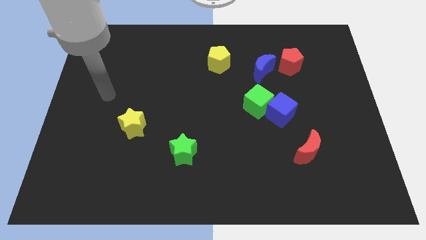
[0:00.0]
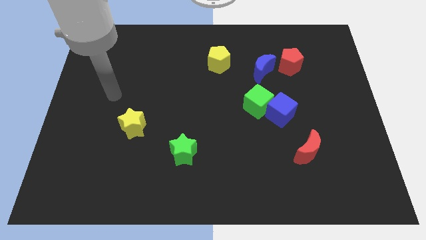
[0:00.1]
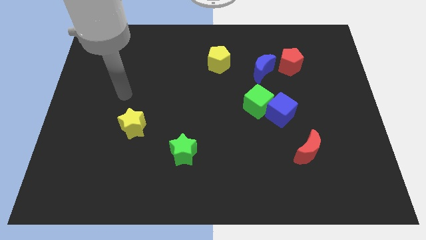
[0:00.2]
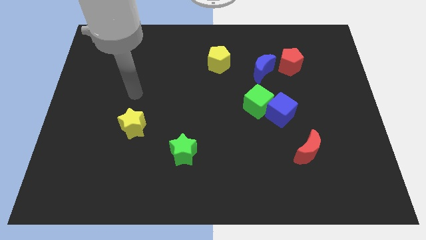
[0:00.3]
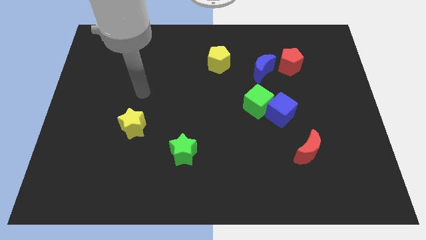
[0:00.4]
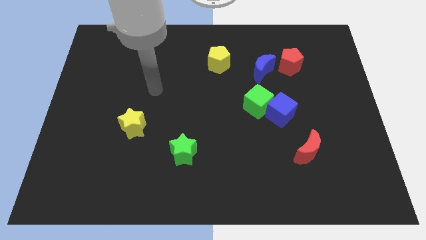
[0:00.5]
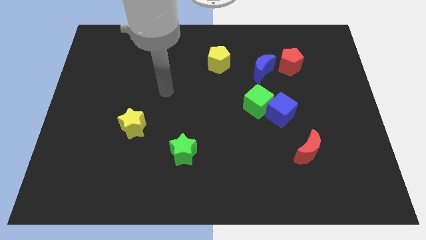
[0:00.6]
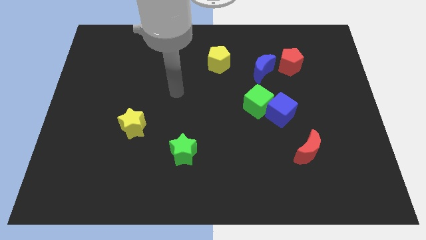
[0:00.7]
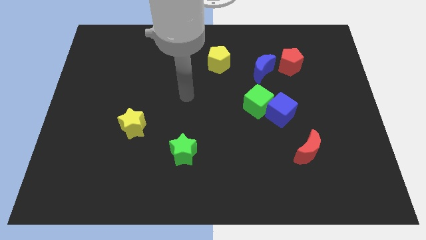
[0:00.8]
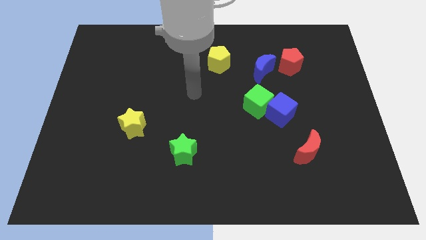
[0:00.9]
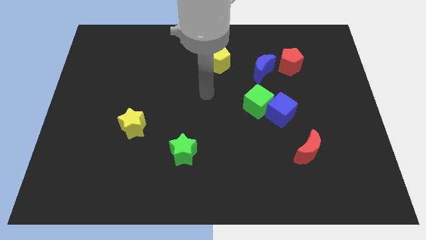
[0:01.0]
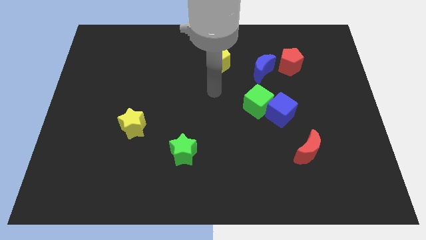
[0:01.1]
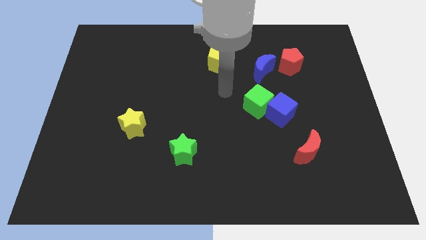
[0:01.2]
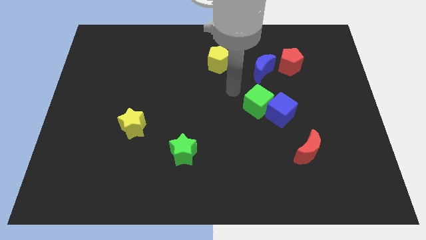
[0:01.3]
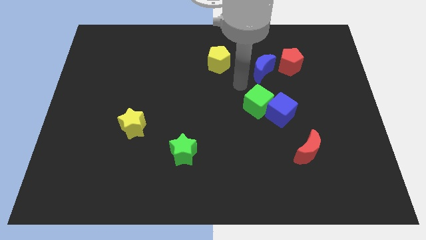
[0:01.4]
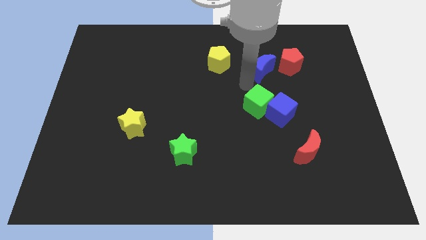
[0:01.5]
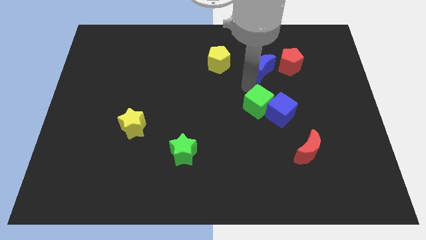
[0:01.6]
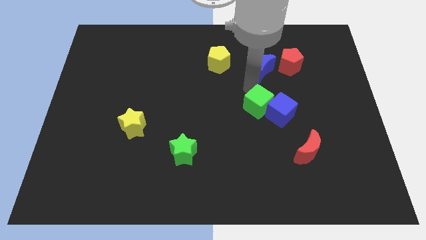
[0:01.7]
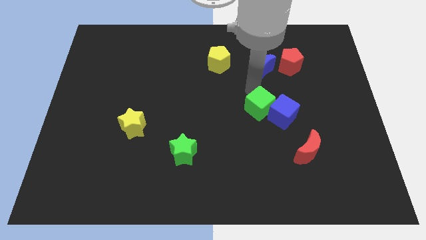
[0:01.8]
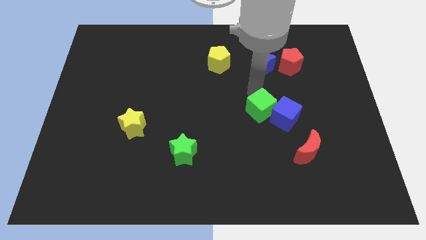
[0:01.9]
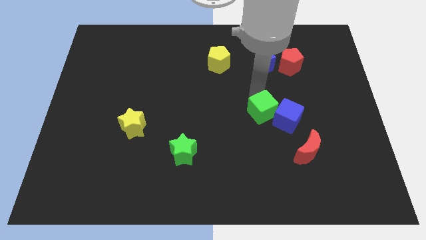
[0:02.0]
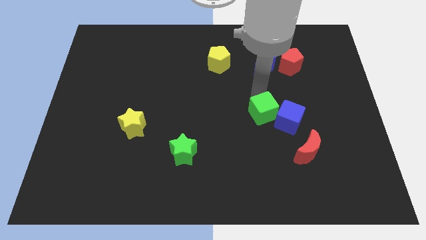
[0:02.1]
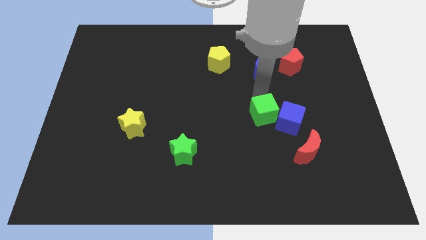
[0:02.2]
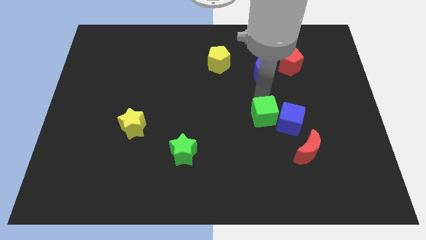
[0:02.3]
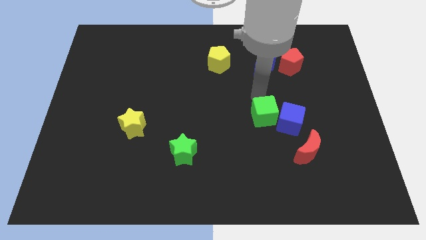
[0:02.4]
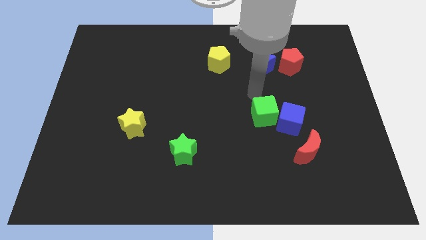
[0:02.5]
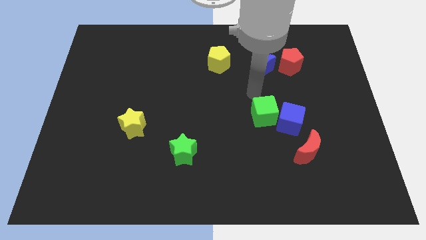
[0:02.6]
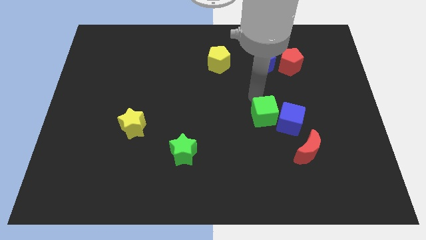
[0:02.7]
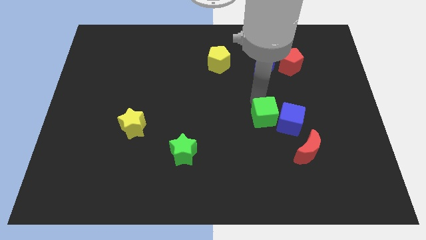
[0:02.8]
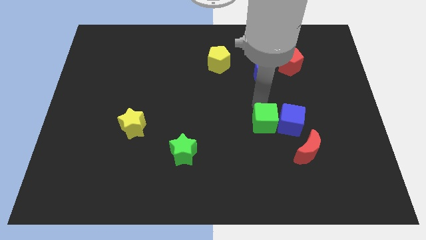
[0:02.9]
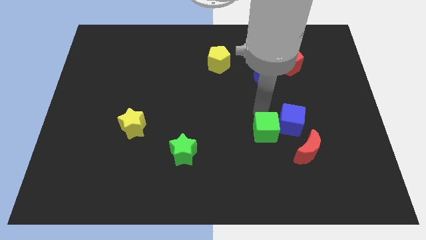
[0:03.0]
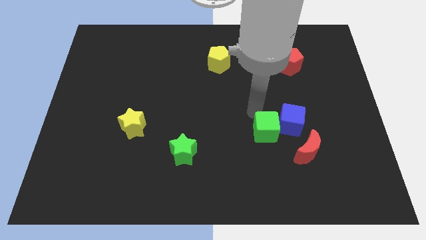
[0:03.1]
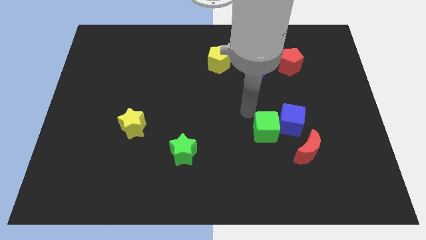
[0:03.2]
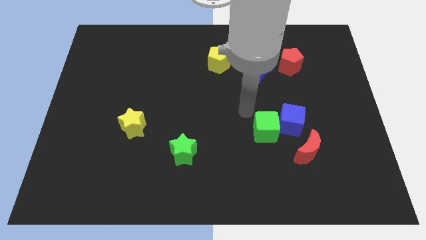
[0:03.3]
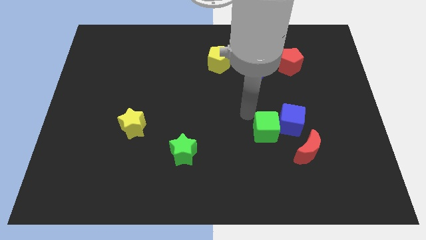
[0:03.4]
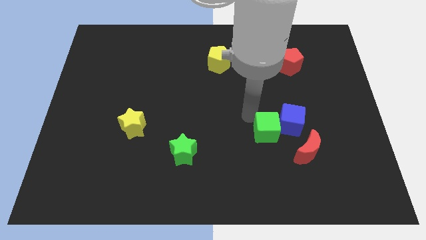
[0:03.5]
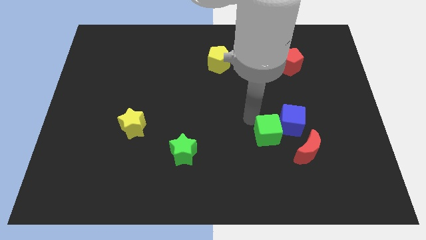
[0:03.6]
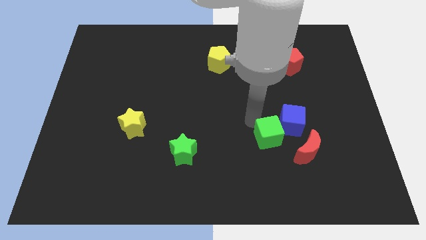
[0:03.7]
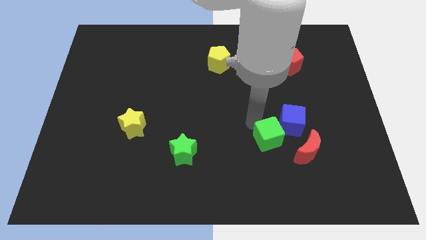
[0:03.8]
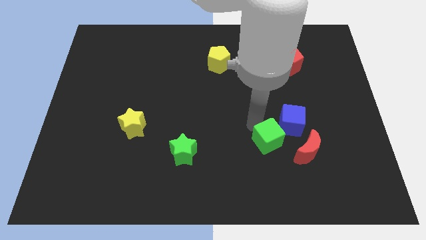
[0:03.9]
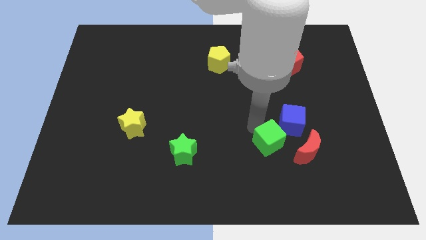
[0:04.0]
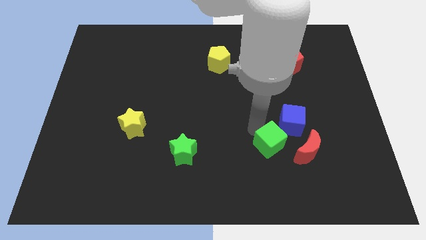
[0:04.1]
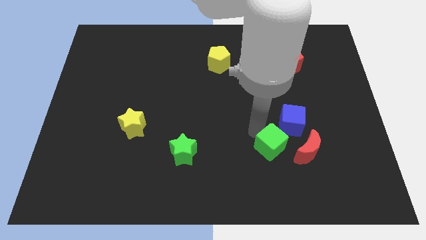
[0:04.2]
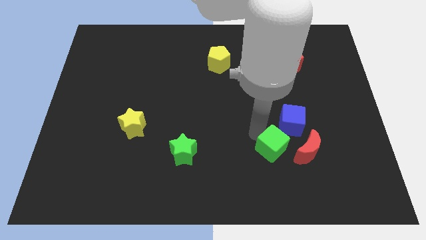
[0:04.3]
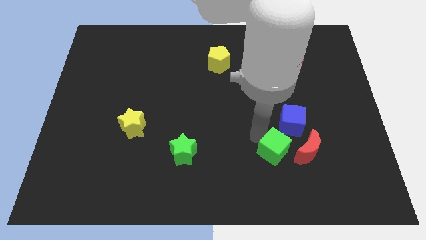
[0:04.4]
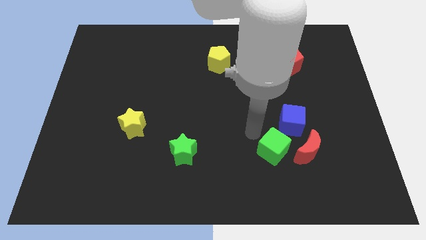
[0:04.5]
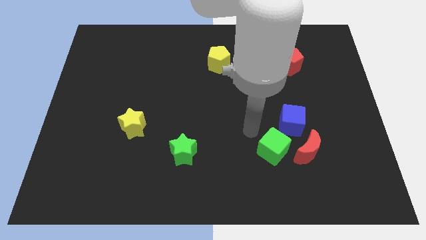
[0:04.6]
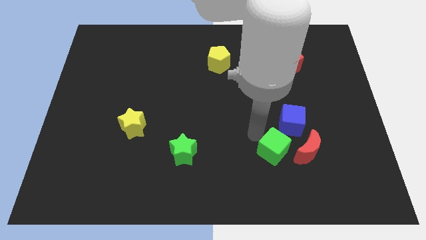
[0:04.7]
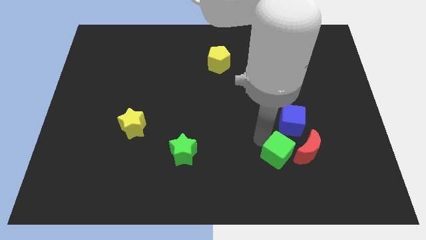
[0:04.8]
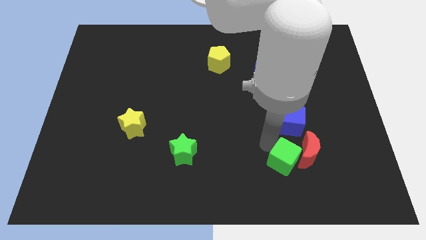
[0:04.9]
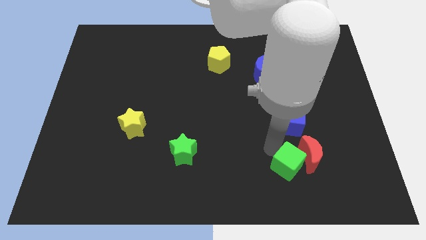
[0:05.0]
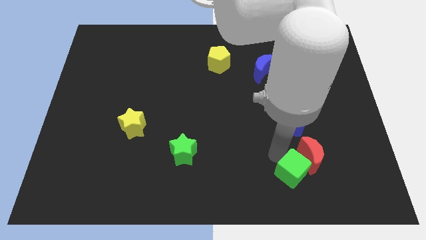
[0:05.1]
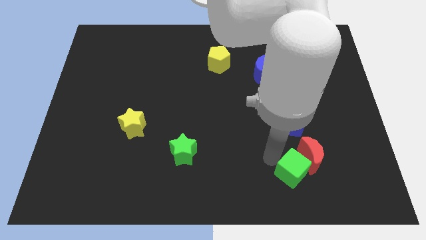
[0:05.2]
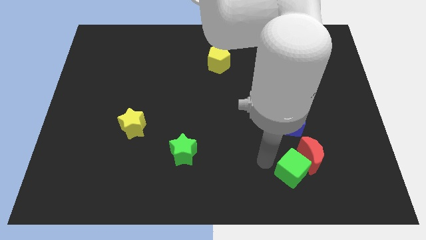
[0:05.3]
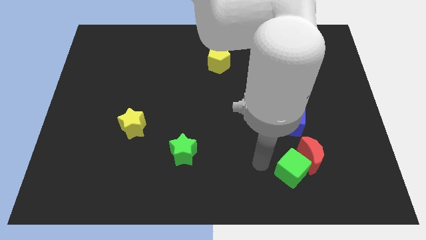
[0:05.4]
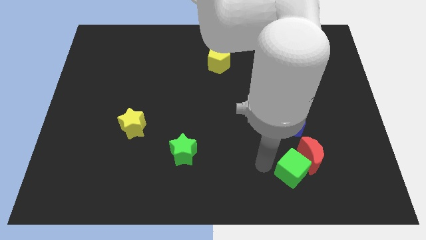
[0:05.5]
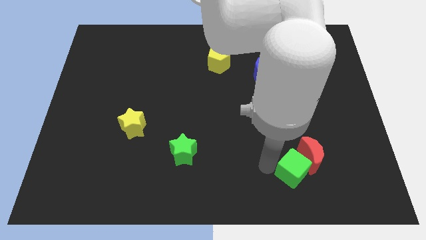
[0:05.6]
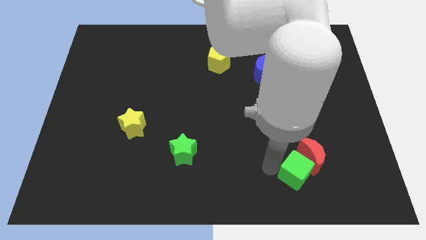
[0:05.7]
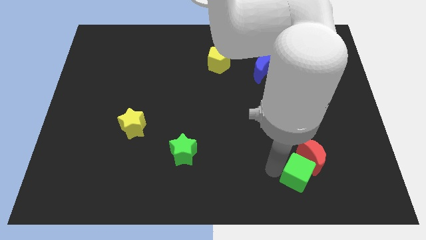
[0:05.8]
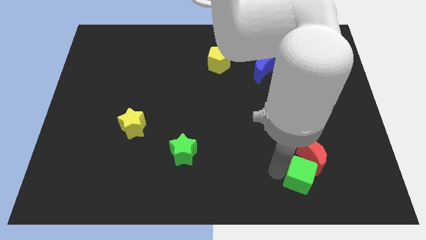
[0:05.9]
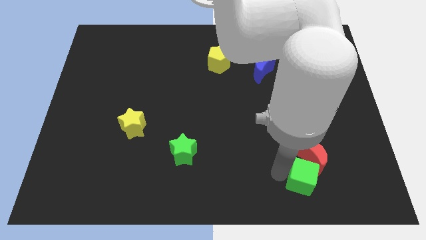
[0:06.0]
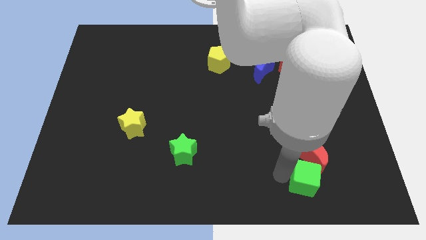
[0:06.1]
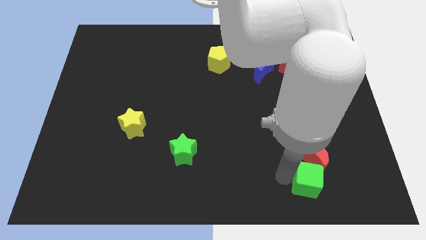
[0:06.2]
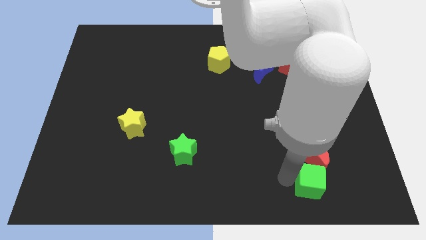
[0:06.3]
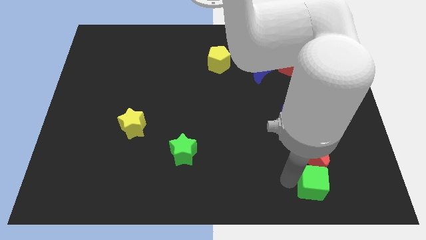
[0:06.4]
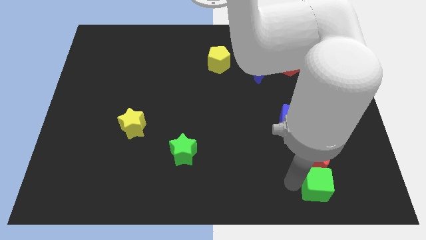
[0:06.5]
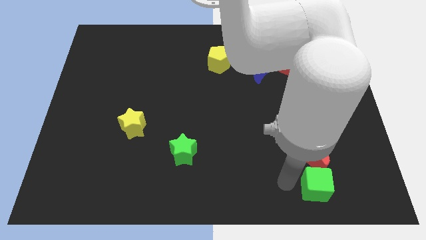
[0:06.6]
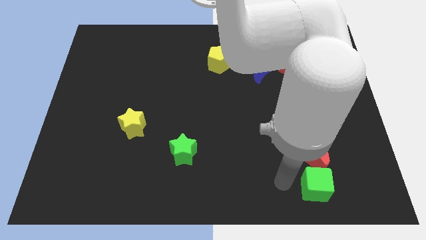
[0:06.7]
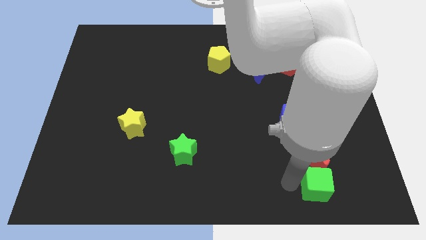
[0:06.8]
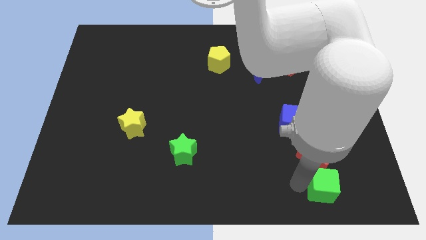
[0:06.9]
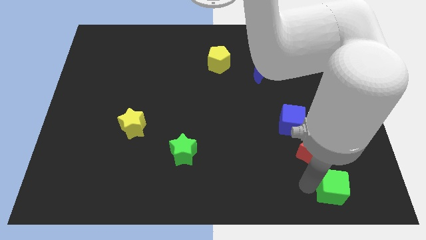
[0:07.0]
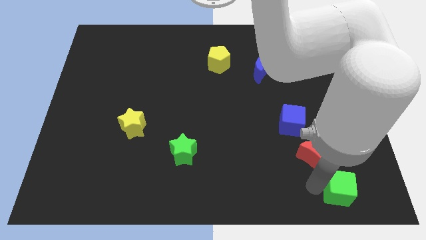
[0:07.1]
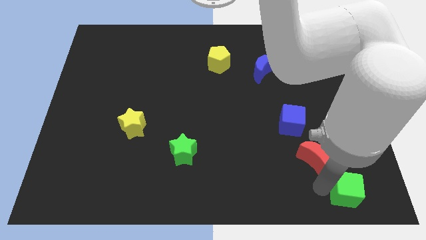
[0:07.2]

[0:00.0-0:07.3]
move the green cube to the bottom right

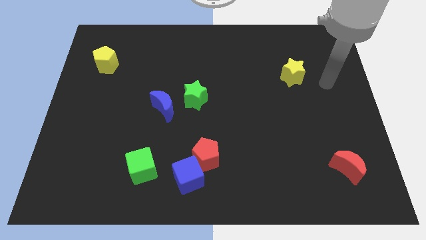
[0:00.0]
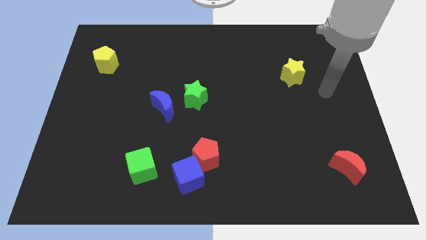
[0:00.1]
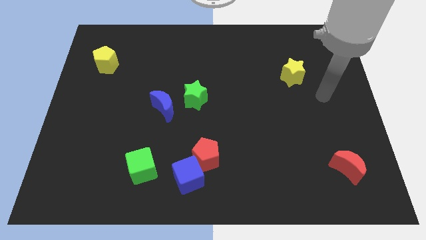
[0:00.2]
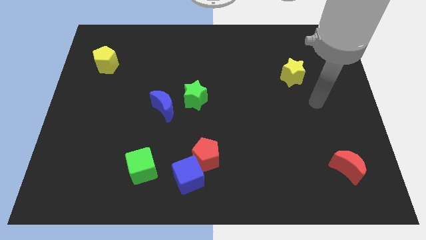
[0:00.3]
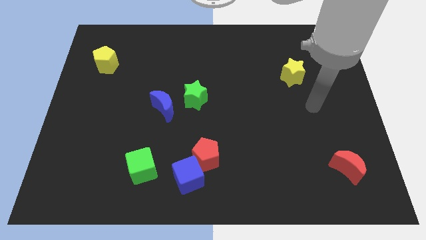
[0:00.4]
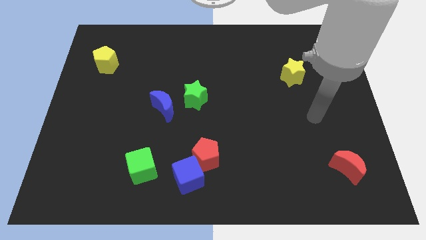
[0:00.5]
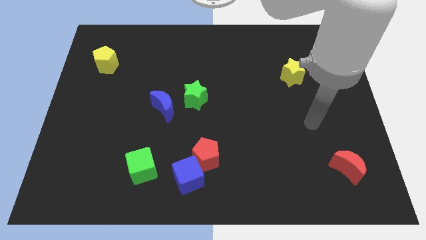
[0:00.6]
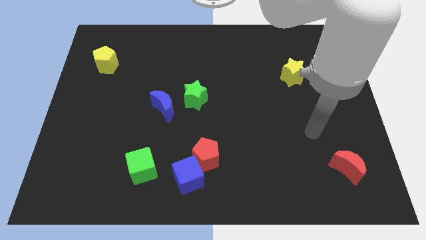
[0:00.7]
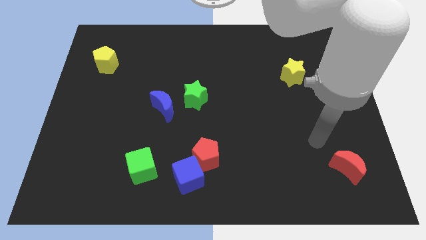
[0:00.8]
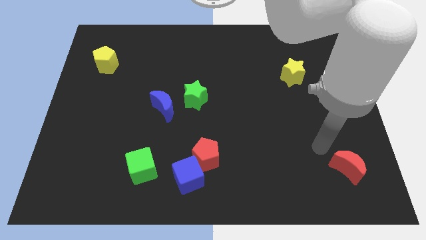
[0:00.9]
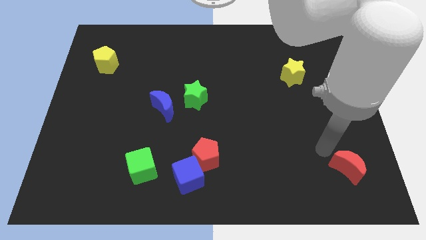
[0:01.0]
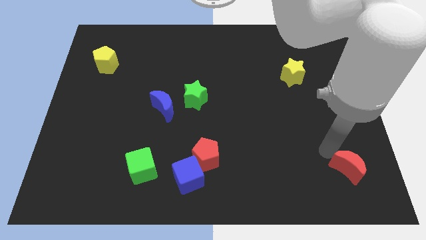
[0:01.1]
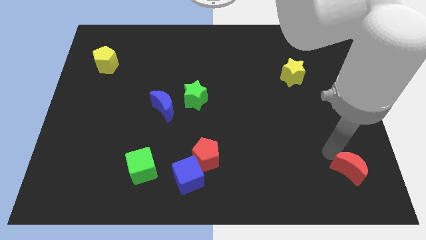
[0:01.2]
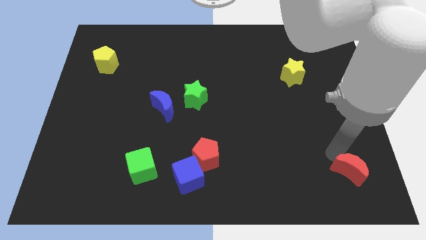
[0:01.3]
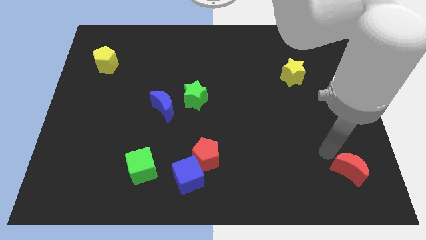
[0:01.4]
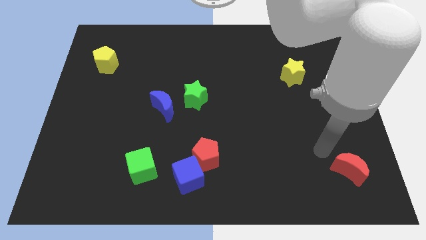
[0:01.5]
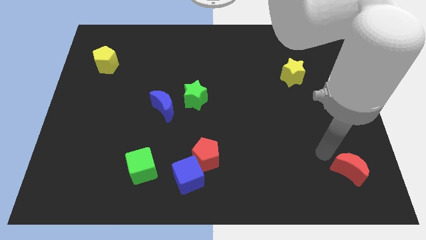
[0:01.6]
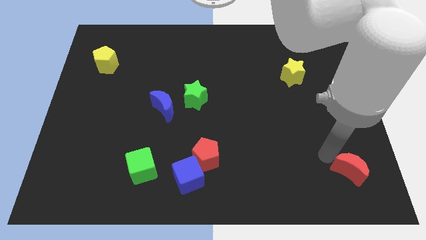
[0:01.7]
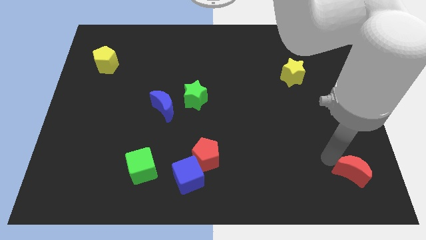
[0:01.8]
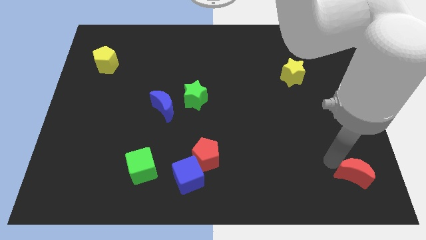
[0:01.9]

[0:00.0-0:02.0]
push the red moon to the bottom right corner
